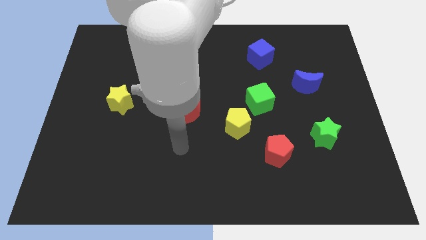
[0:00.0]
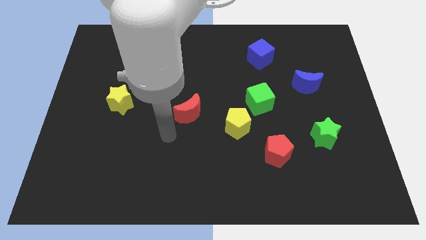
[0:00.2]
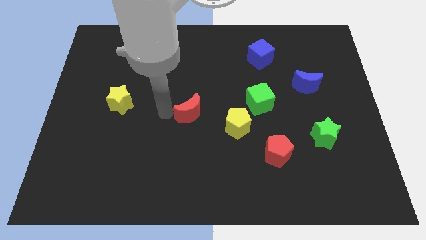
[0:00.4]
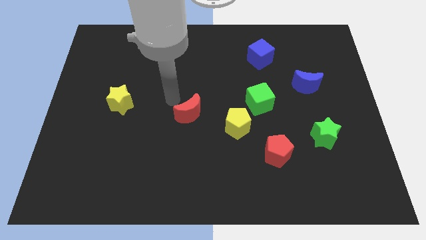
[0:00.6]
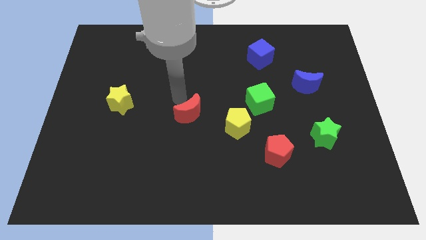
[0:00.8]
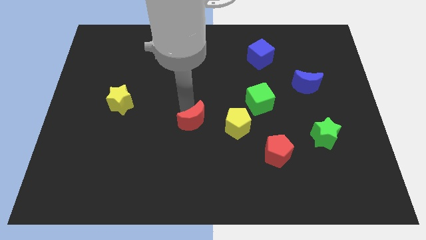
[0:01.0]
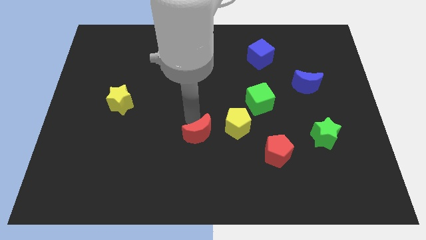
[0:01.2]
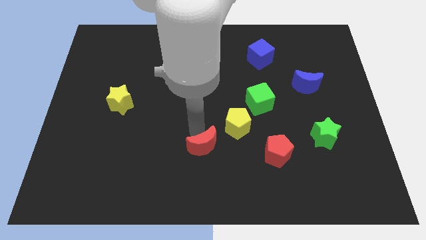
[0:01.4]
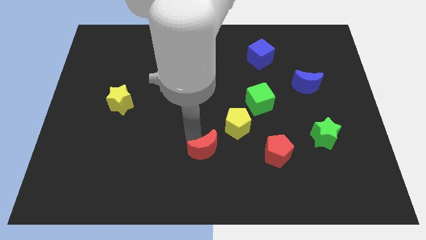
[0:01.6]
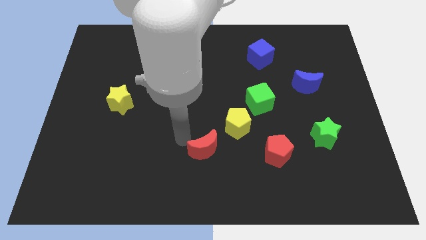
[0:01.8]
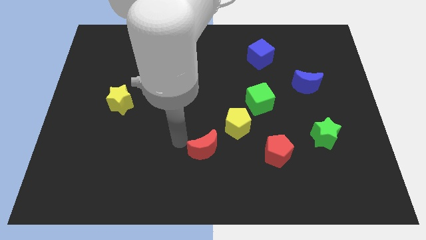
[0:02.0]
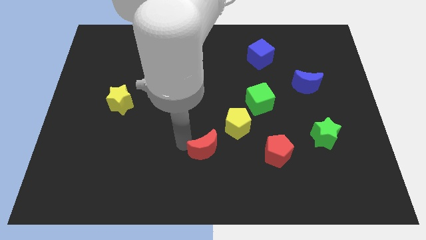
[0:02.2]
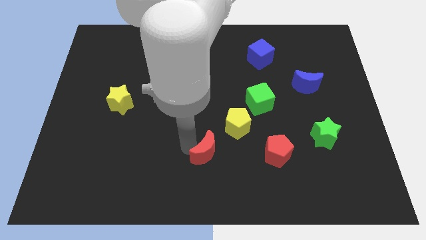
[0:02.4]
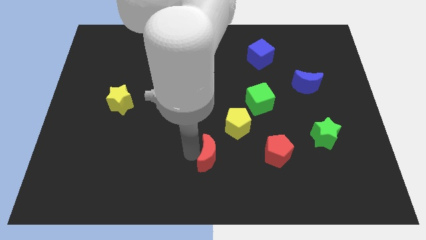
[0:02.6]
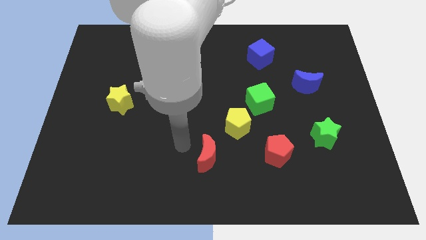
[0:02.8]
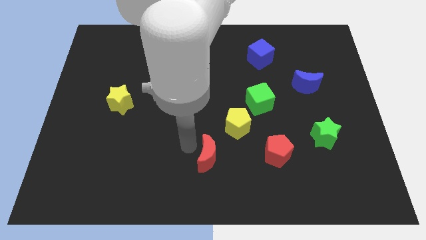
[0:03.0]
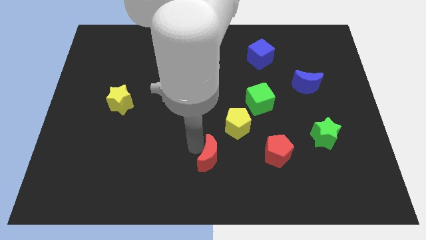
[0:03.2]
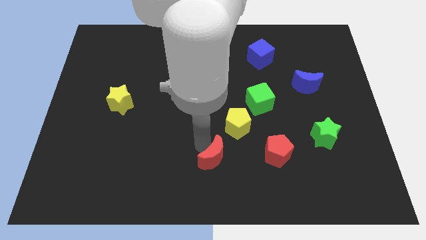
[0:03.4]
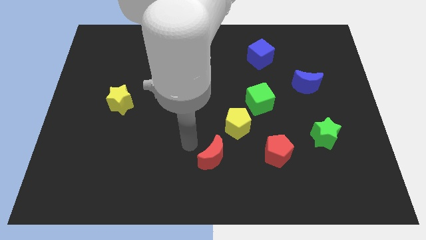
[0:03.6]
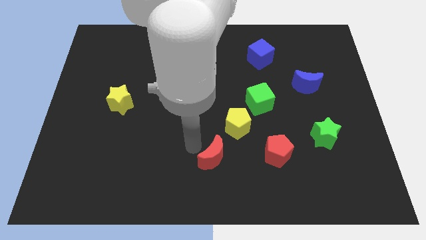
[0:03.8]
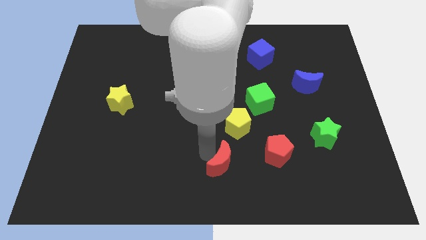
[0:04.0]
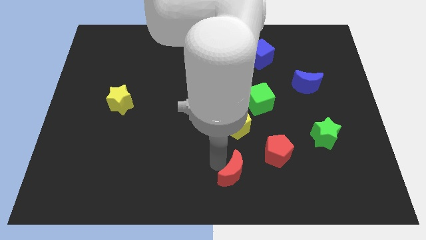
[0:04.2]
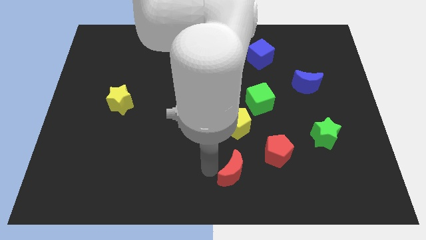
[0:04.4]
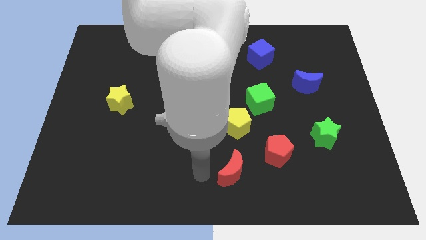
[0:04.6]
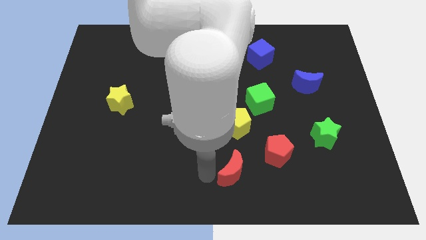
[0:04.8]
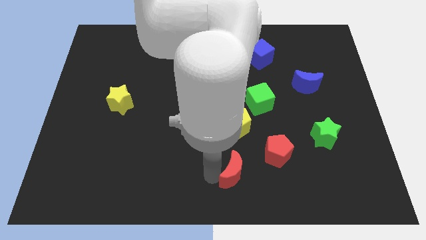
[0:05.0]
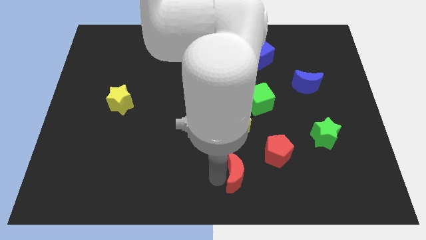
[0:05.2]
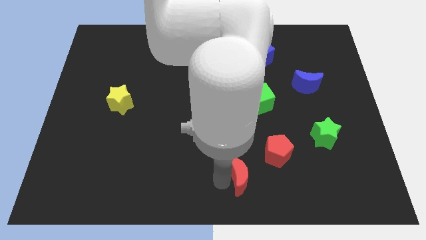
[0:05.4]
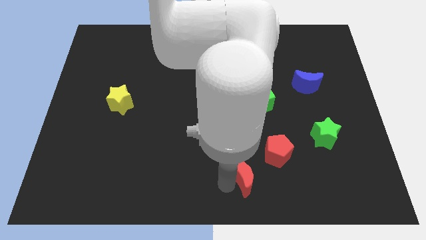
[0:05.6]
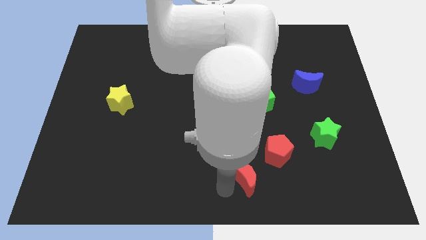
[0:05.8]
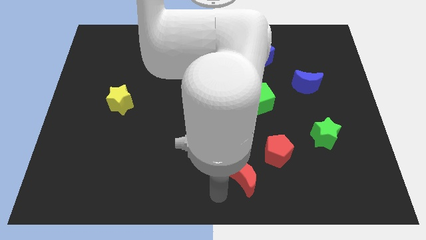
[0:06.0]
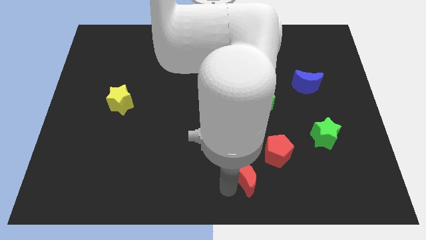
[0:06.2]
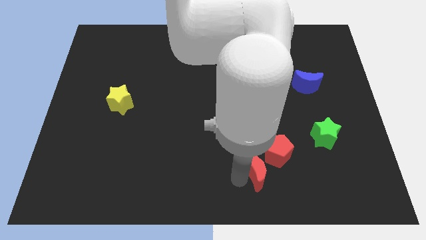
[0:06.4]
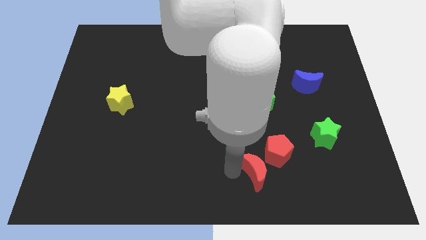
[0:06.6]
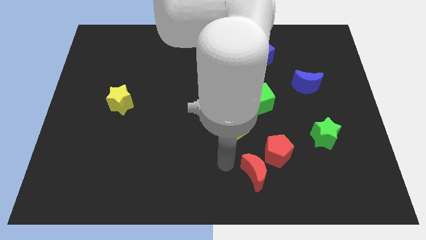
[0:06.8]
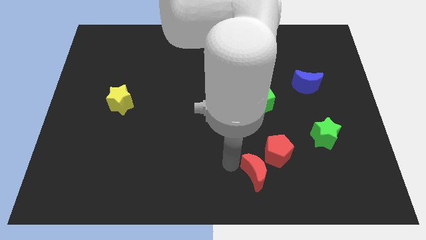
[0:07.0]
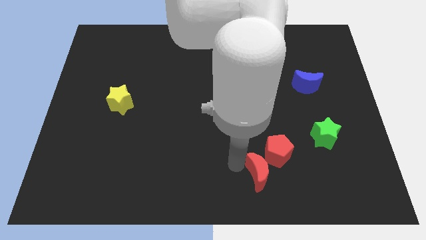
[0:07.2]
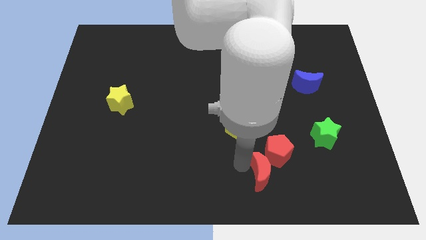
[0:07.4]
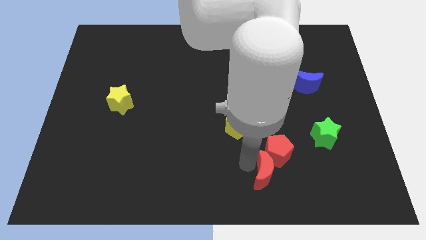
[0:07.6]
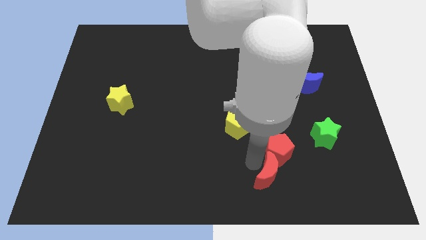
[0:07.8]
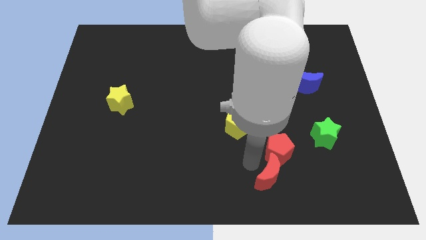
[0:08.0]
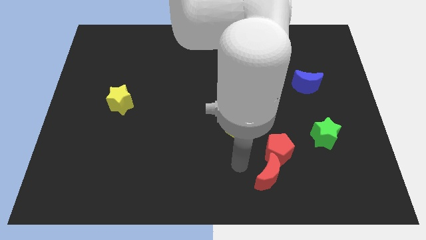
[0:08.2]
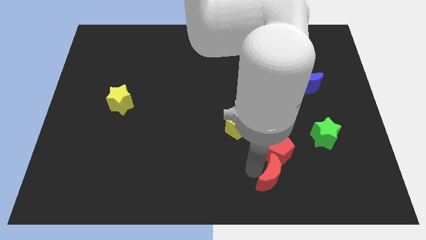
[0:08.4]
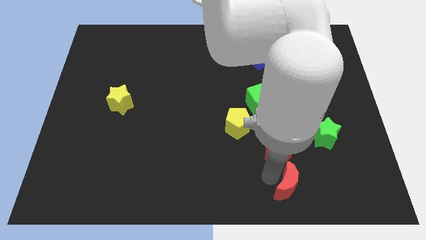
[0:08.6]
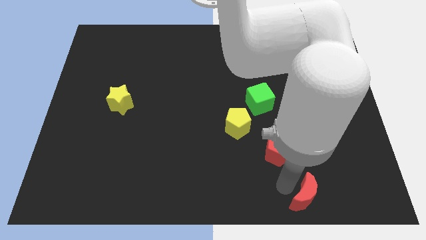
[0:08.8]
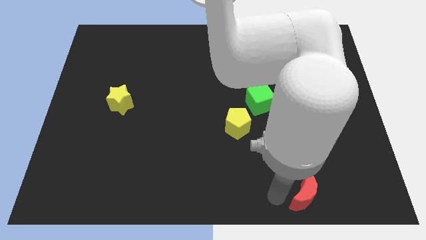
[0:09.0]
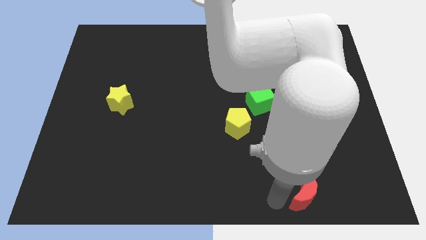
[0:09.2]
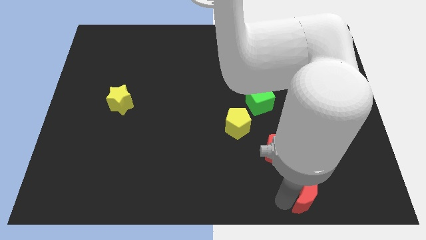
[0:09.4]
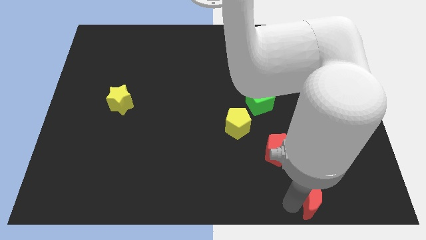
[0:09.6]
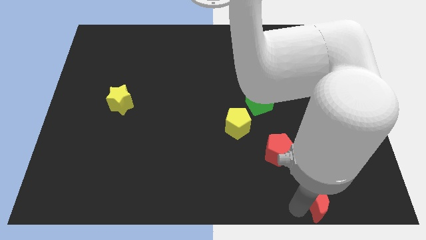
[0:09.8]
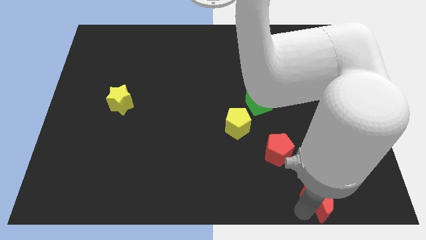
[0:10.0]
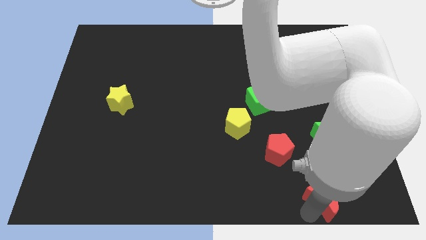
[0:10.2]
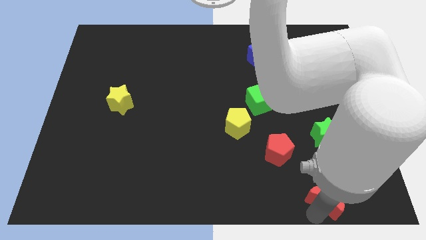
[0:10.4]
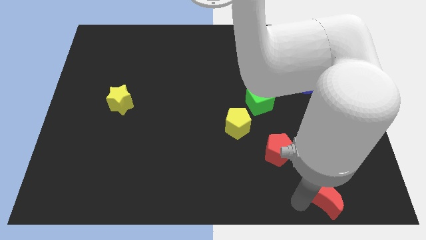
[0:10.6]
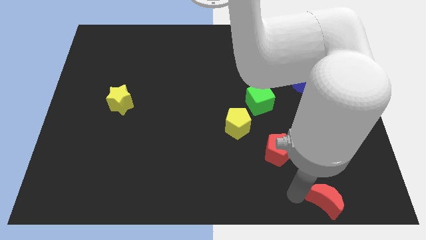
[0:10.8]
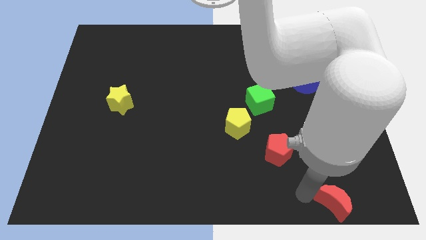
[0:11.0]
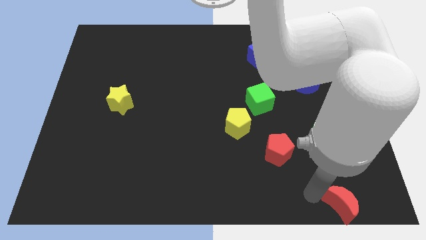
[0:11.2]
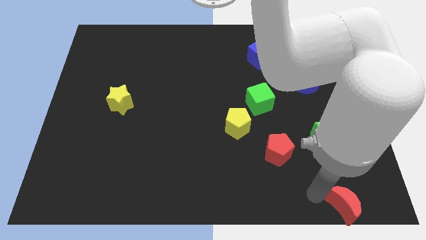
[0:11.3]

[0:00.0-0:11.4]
move the red moon to the bottom right of the board

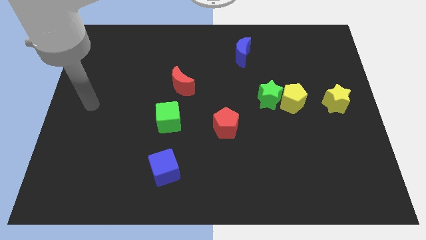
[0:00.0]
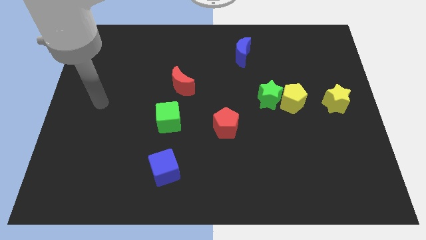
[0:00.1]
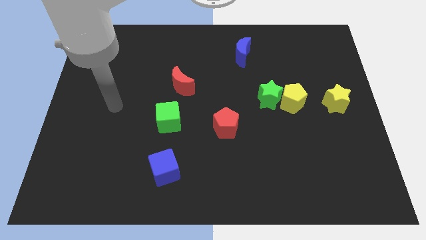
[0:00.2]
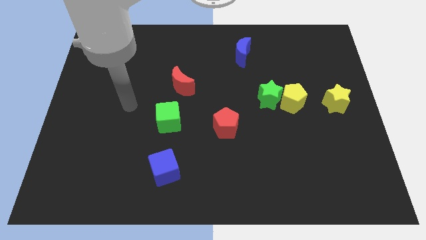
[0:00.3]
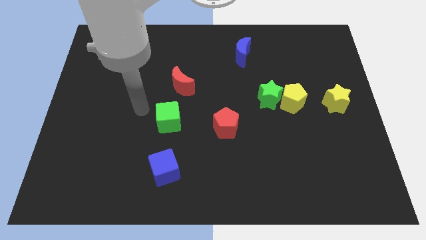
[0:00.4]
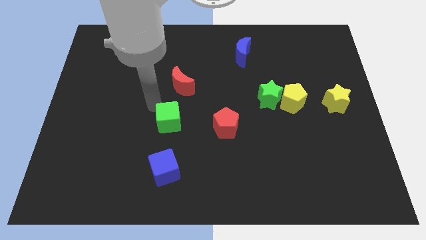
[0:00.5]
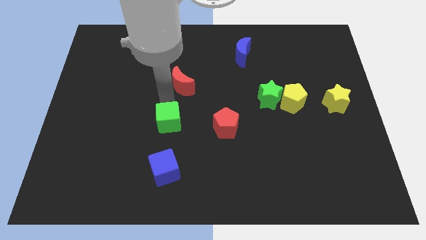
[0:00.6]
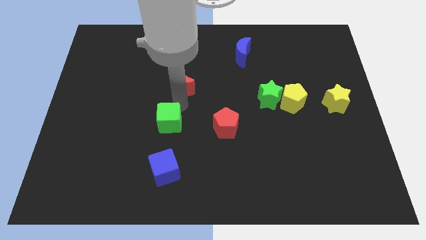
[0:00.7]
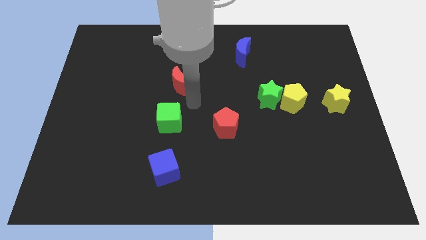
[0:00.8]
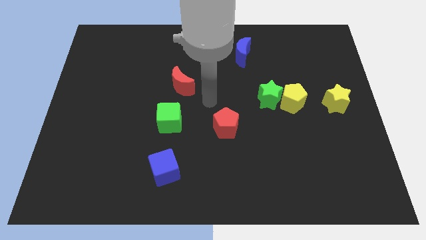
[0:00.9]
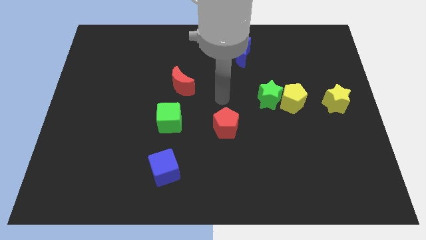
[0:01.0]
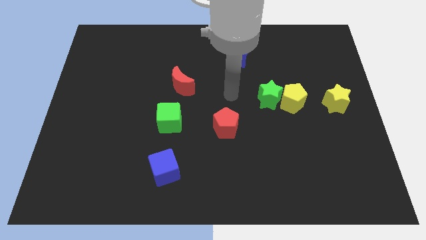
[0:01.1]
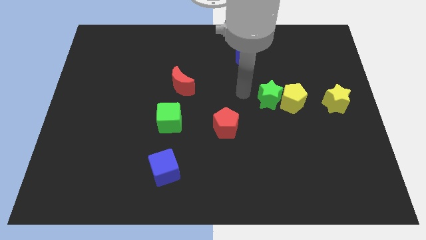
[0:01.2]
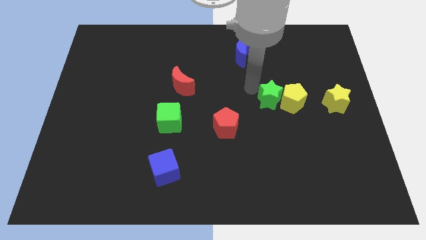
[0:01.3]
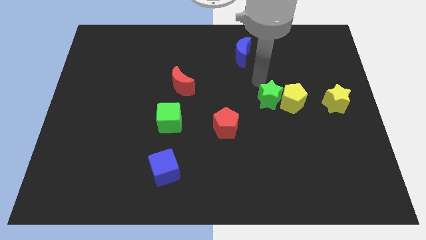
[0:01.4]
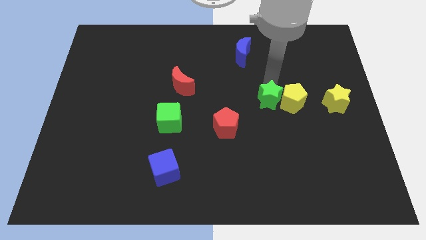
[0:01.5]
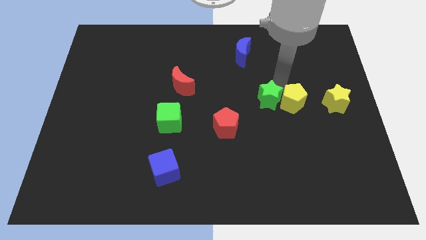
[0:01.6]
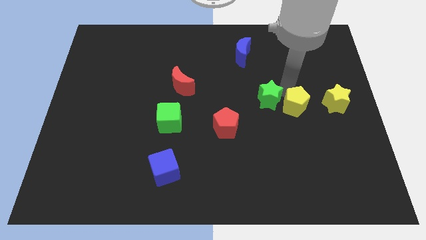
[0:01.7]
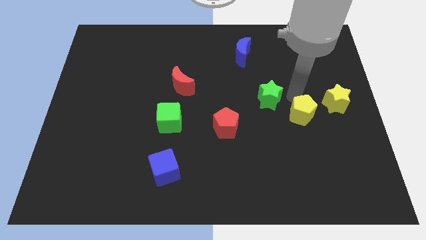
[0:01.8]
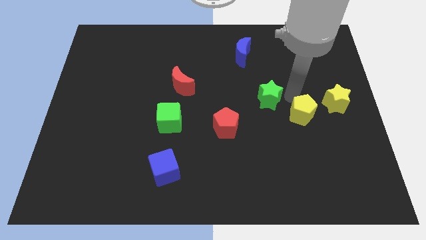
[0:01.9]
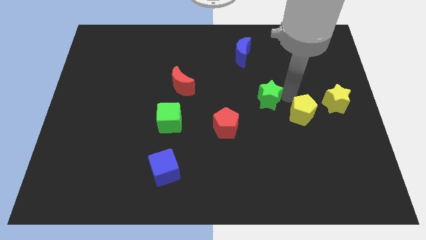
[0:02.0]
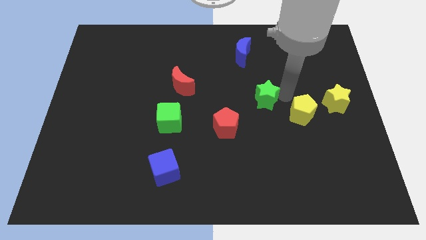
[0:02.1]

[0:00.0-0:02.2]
put the green star to the center
